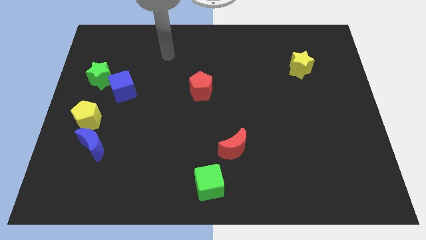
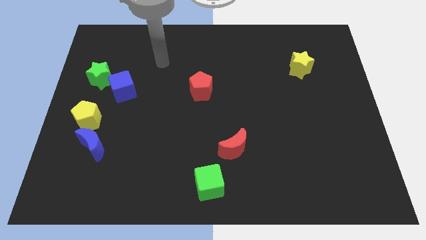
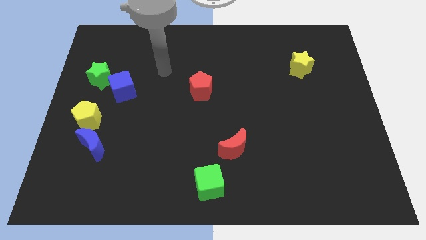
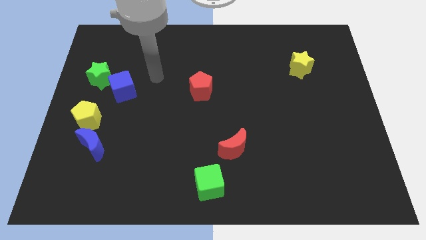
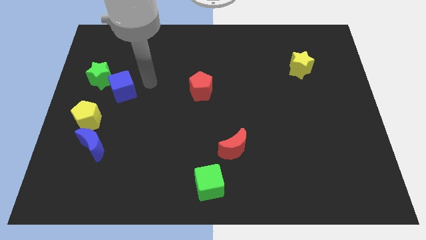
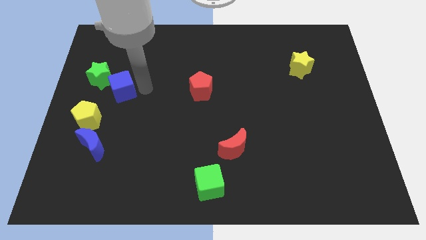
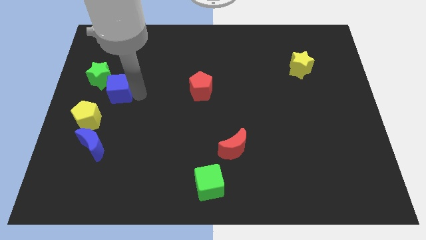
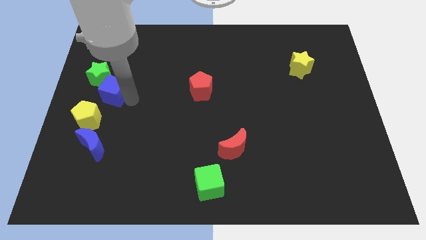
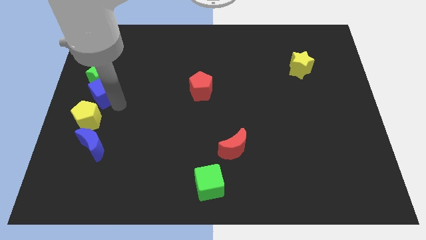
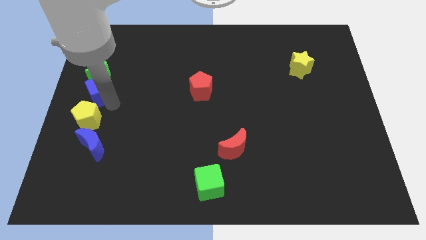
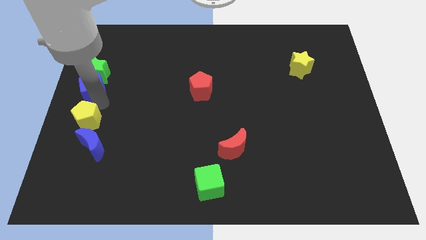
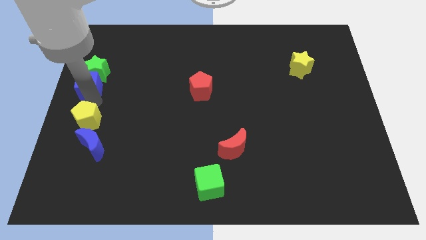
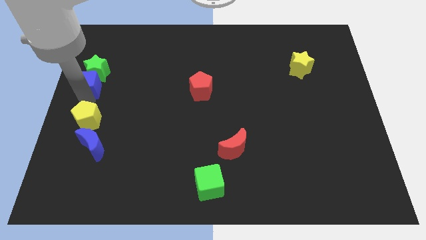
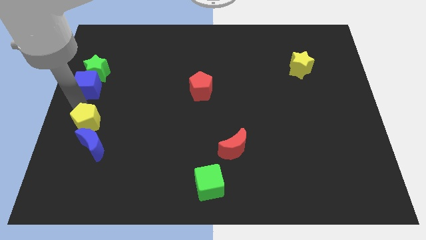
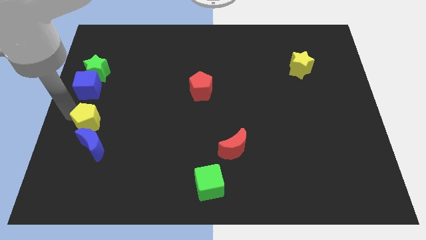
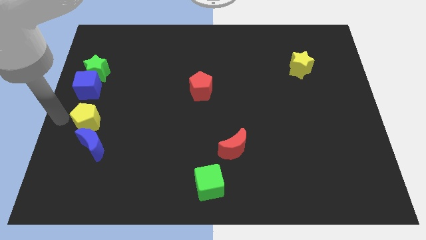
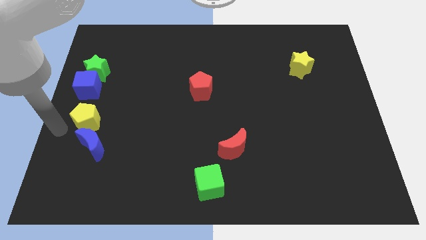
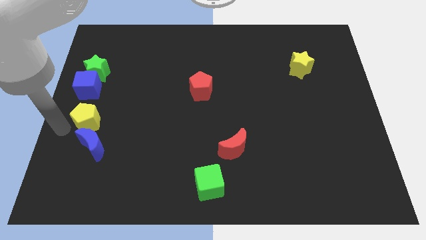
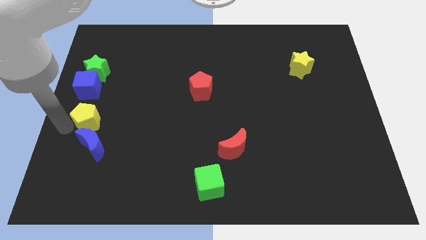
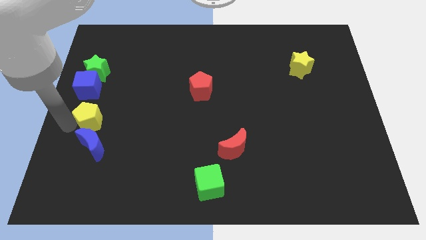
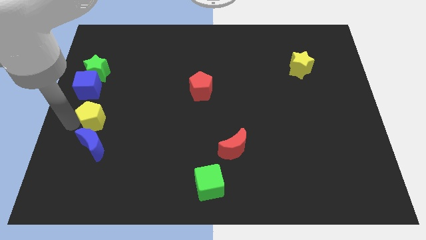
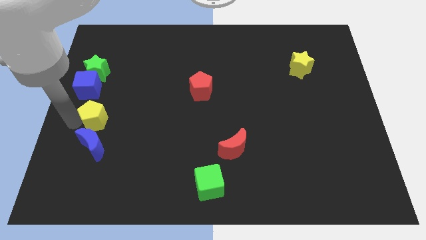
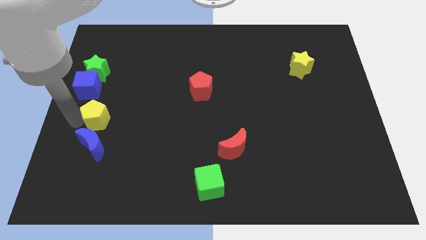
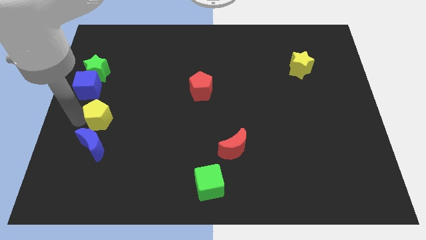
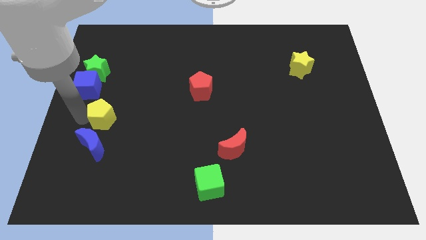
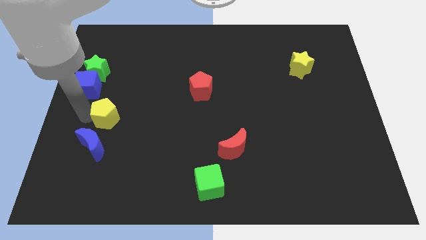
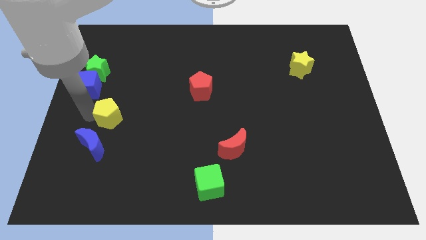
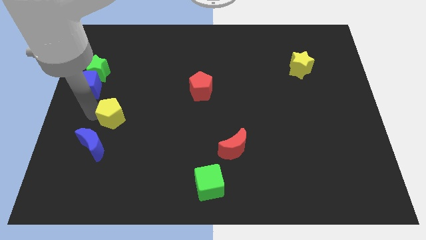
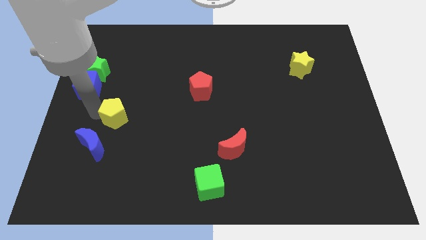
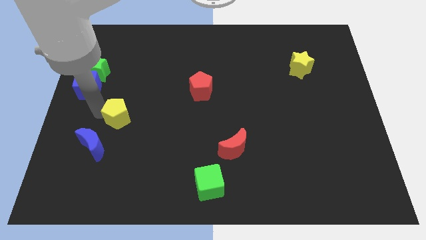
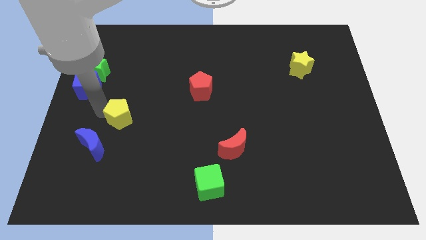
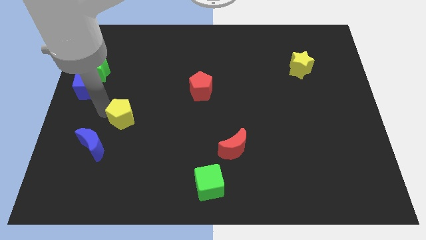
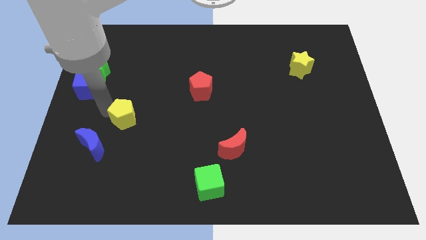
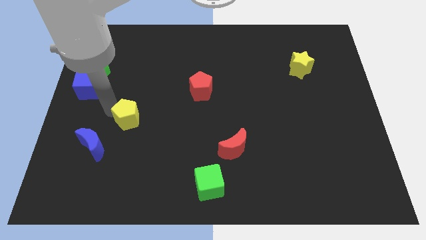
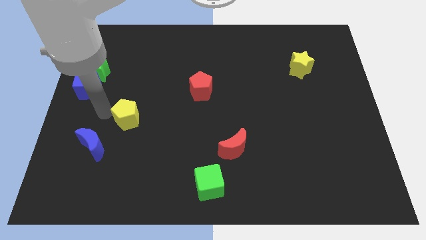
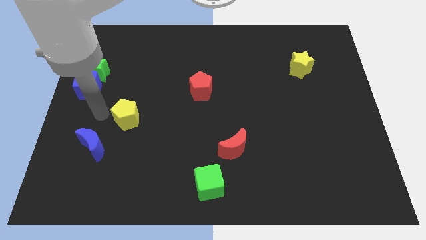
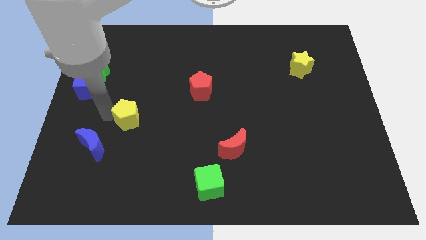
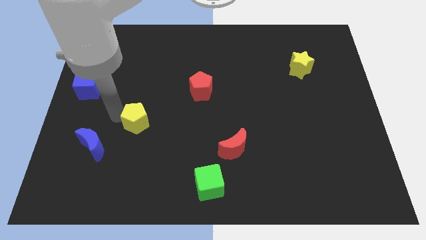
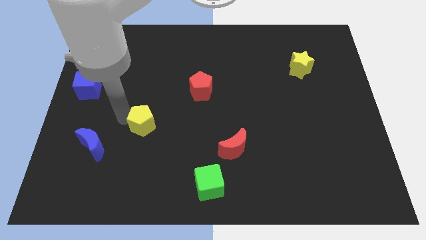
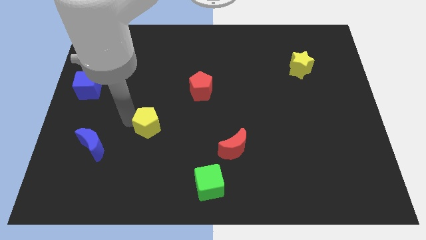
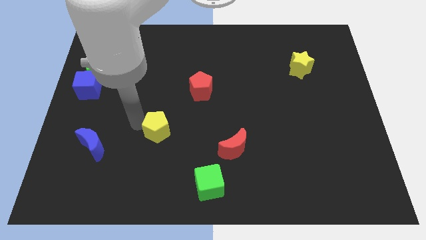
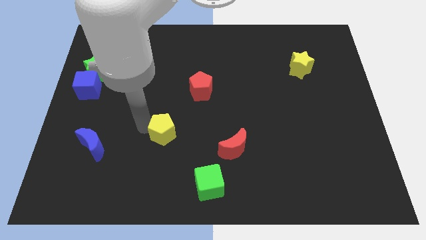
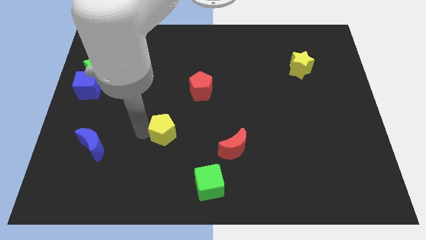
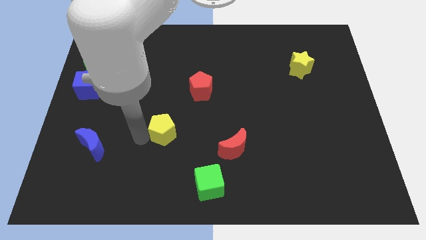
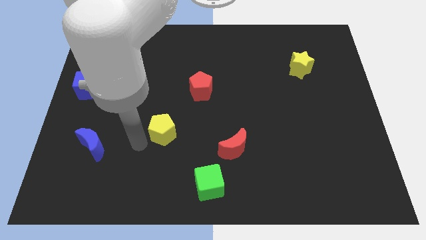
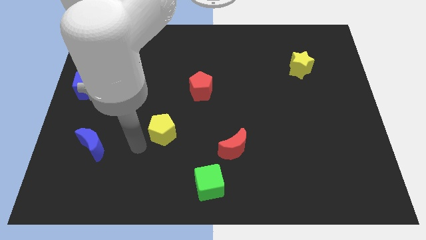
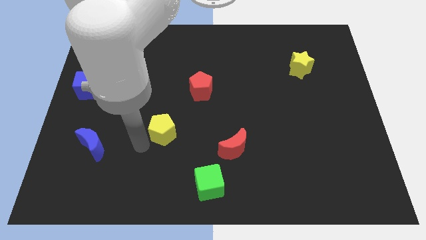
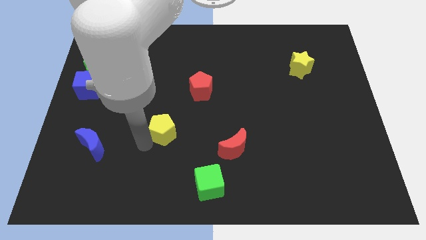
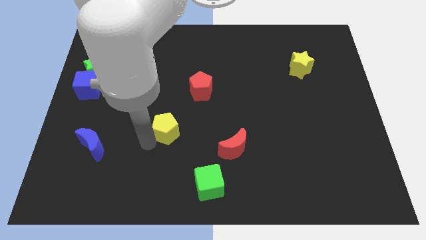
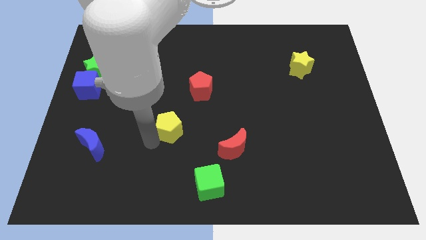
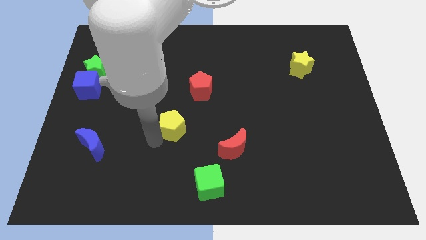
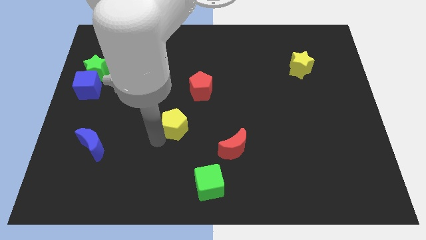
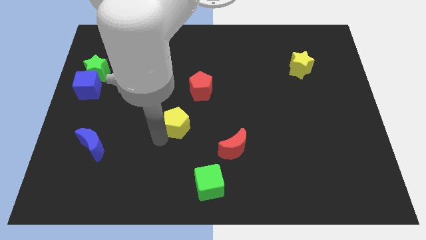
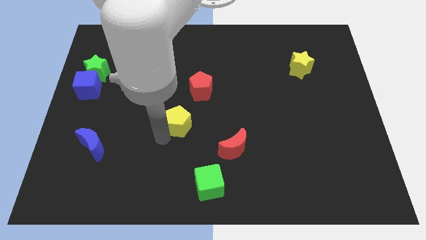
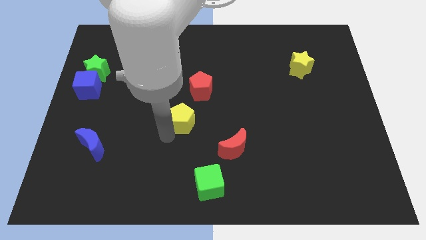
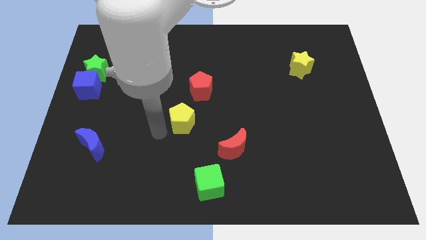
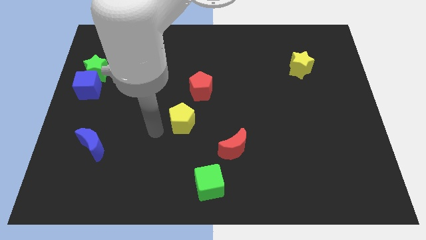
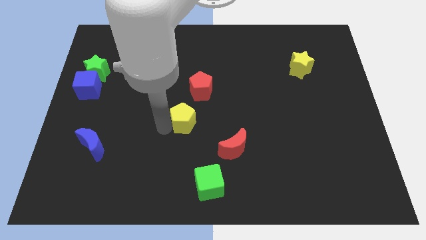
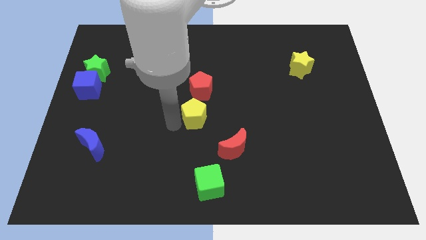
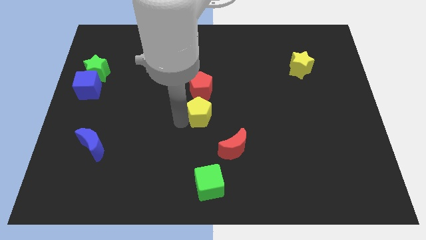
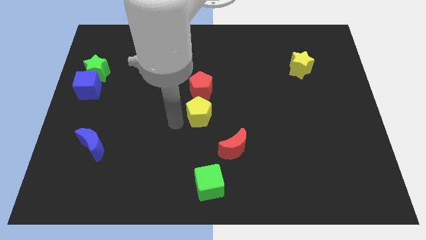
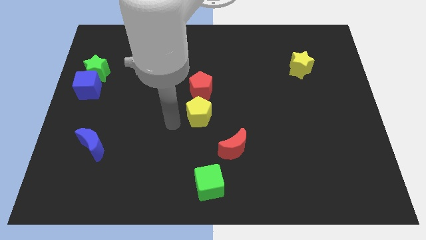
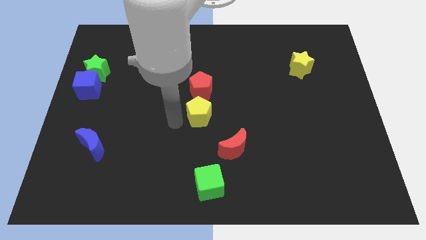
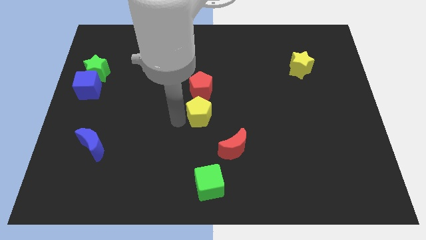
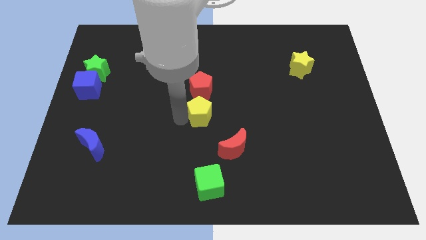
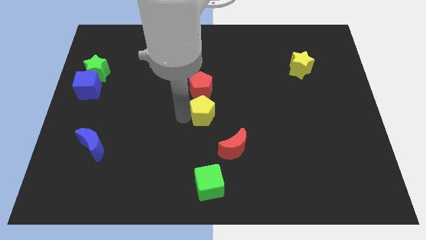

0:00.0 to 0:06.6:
put the yellow pentagon to the bottom right side of the red pentagon

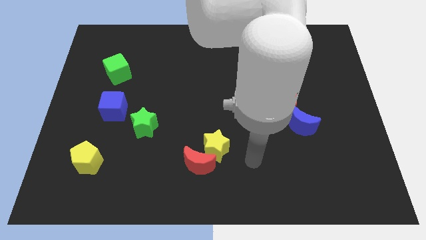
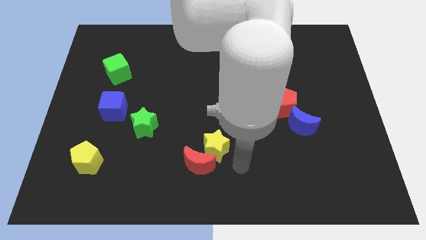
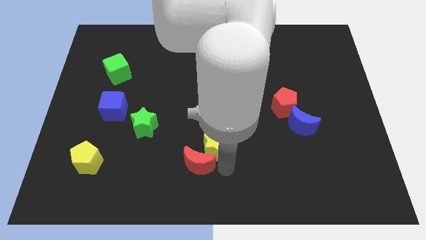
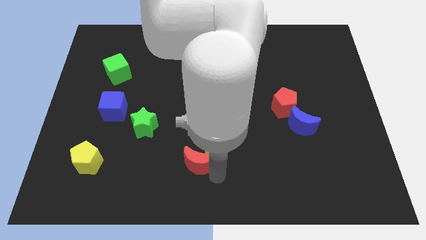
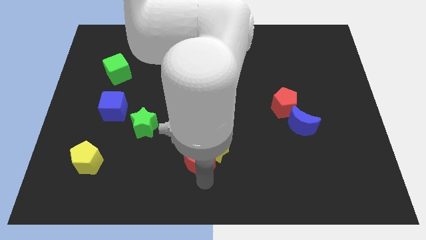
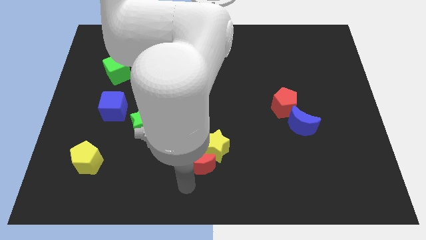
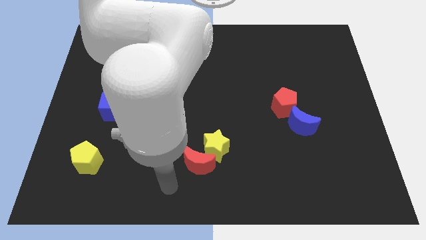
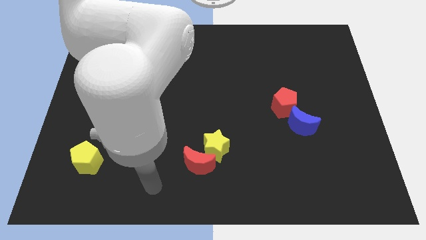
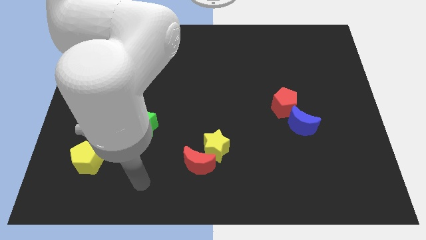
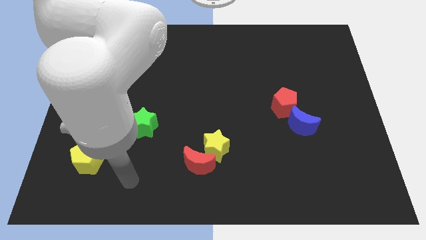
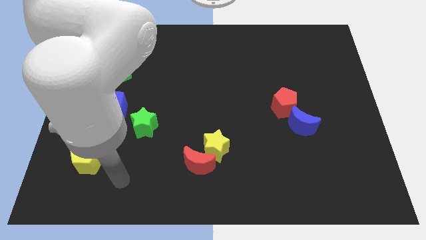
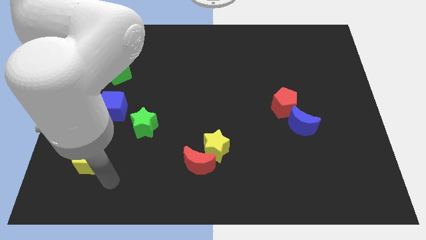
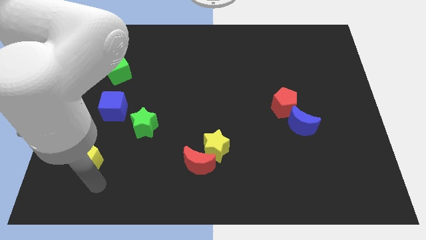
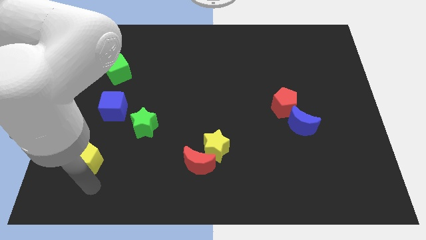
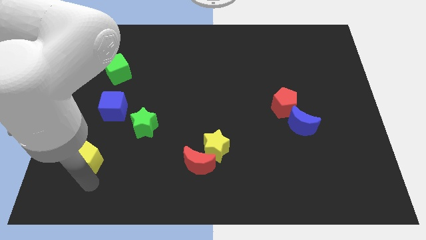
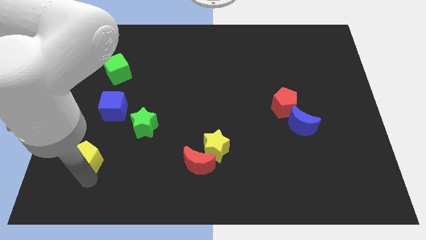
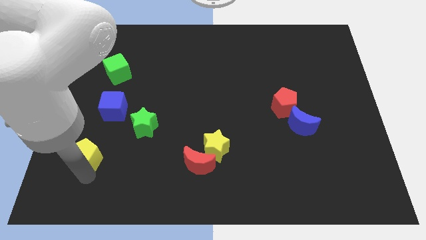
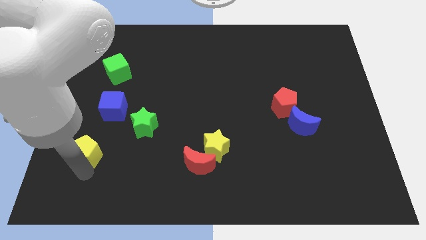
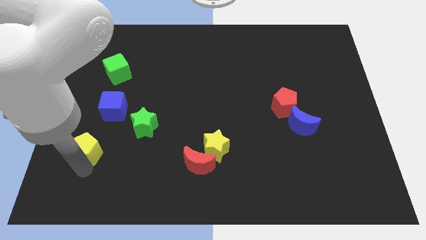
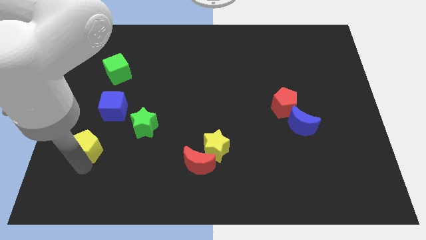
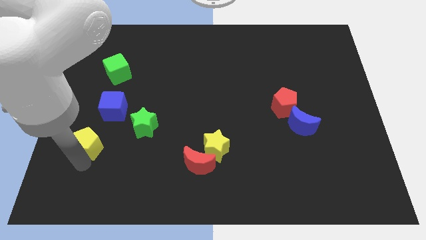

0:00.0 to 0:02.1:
push the yellow pentagon diagonally down and to the left of the blue cube
